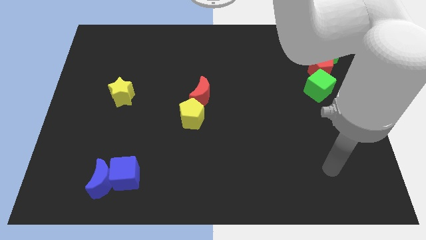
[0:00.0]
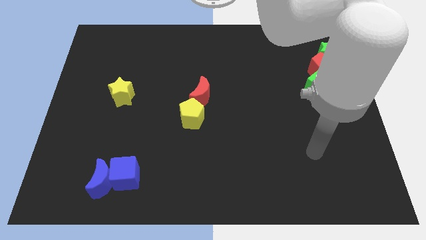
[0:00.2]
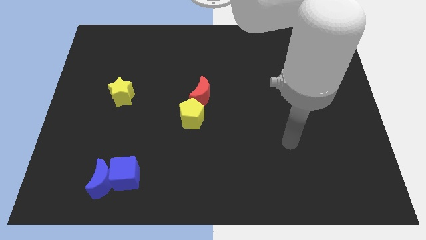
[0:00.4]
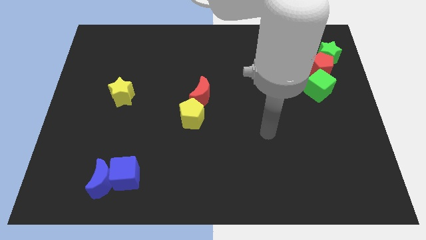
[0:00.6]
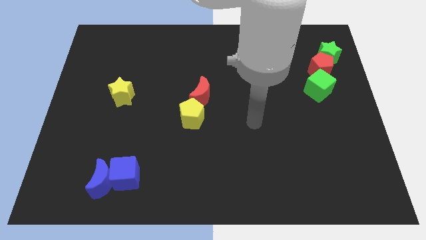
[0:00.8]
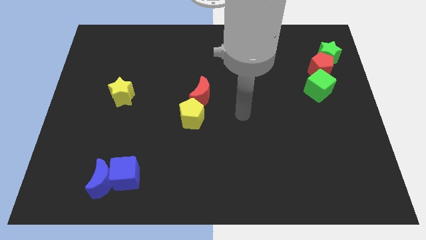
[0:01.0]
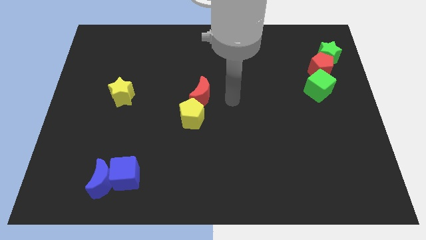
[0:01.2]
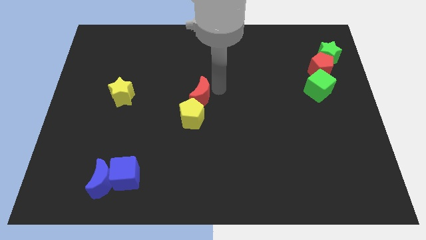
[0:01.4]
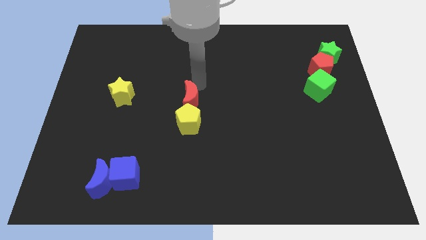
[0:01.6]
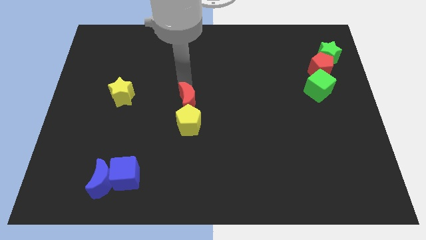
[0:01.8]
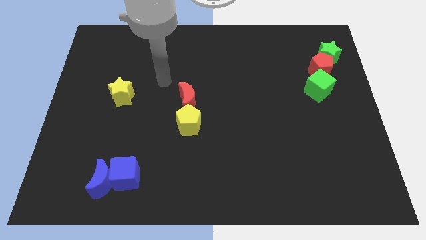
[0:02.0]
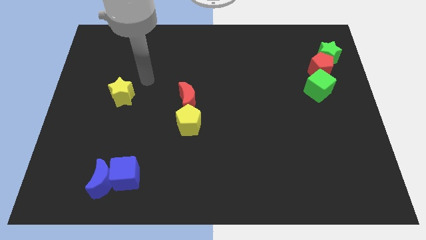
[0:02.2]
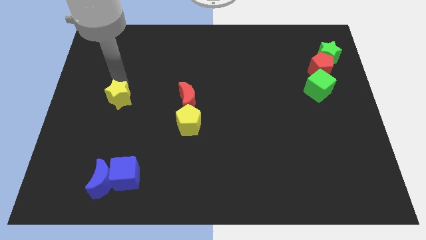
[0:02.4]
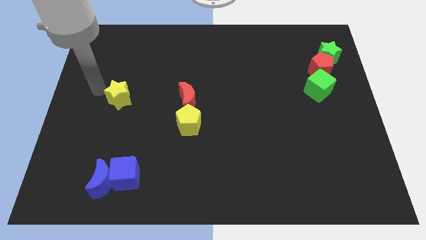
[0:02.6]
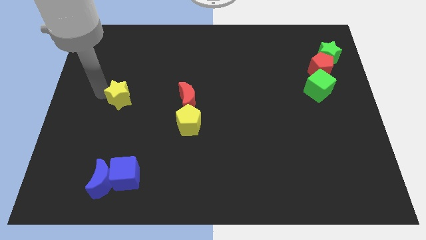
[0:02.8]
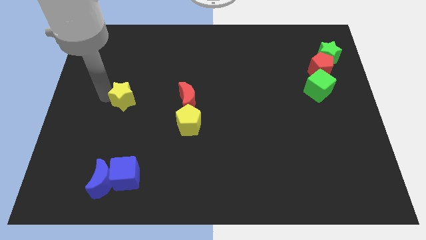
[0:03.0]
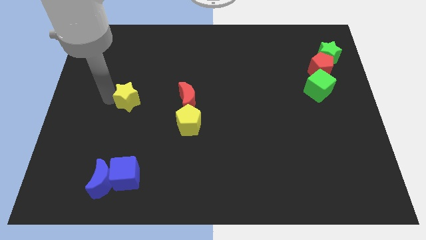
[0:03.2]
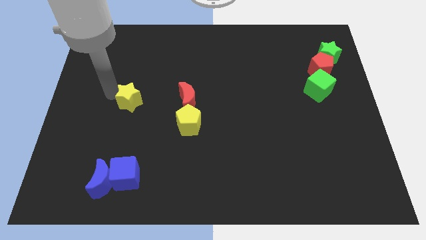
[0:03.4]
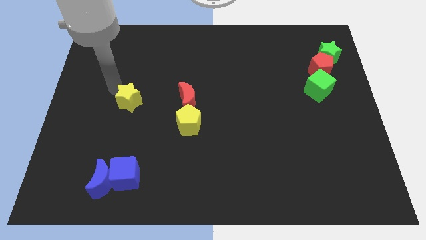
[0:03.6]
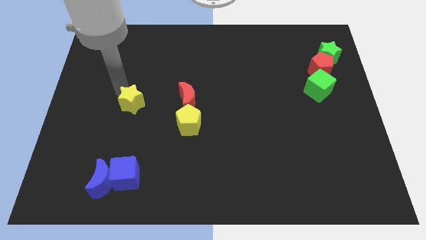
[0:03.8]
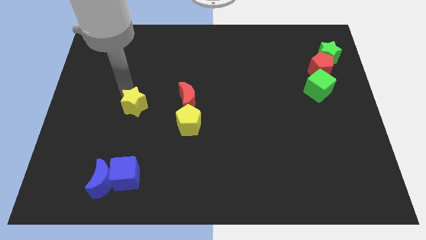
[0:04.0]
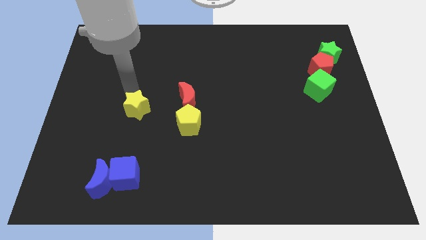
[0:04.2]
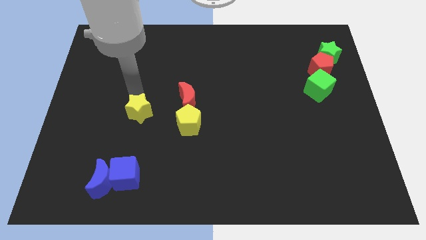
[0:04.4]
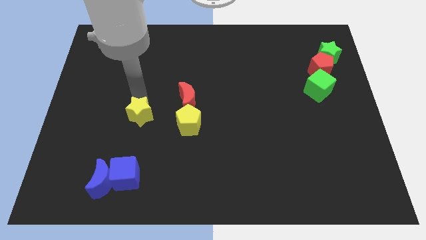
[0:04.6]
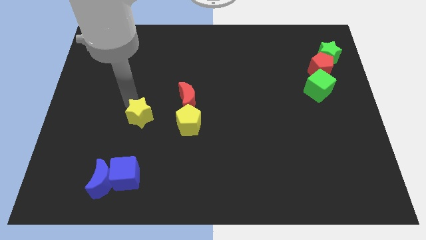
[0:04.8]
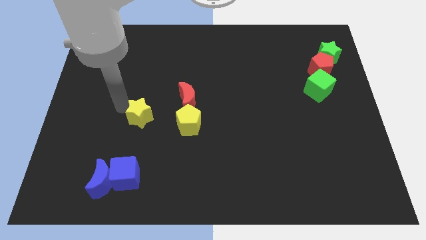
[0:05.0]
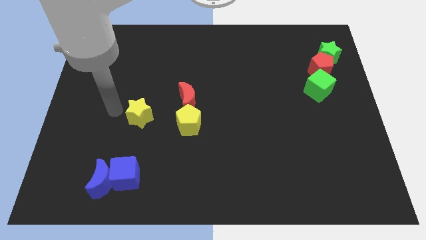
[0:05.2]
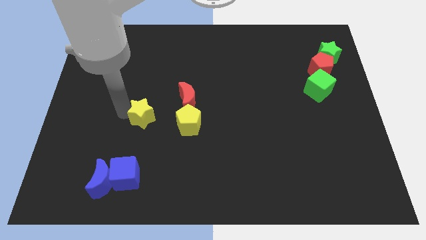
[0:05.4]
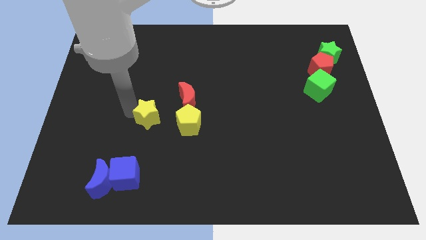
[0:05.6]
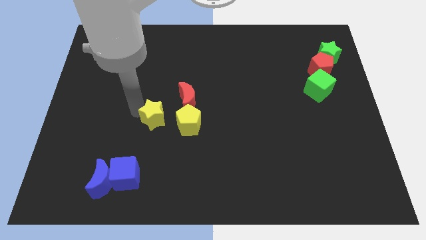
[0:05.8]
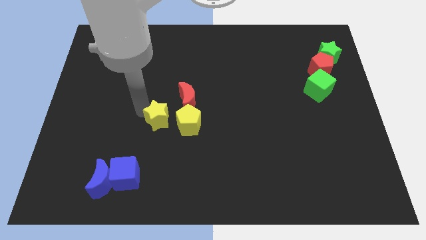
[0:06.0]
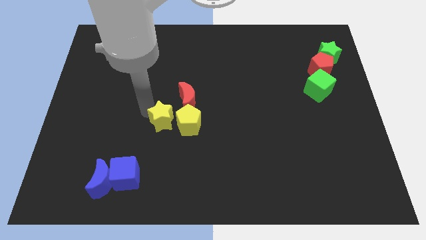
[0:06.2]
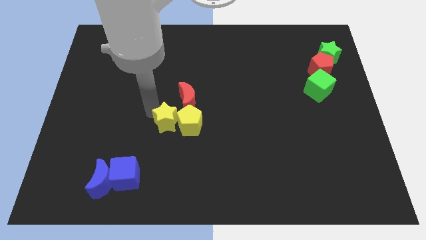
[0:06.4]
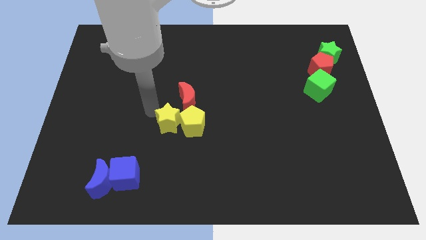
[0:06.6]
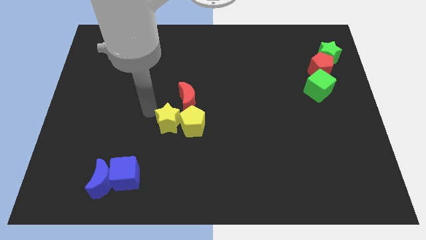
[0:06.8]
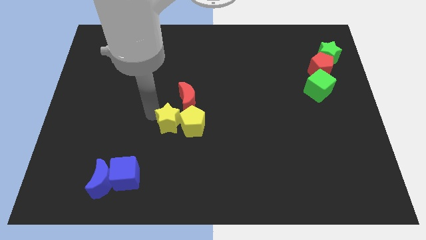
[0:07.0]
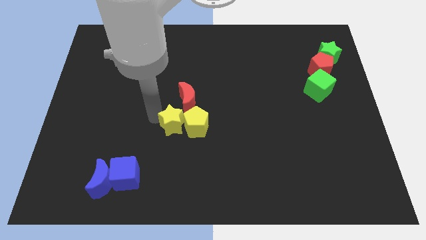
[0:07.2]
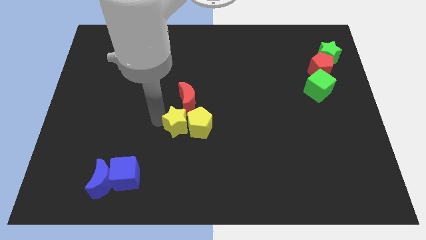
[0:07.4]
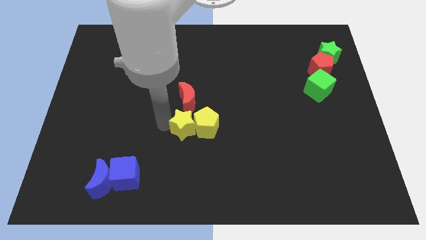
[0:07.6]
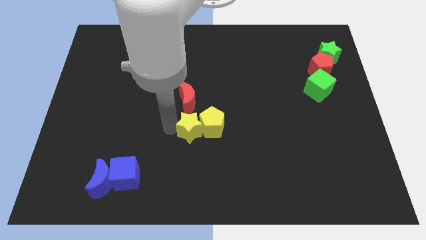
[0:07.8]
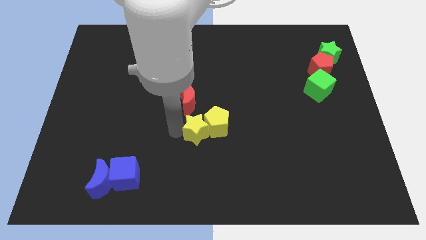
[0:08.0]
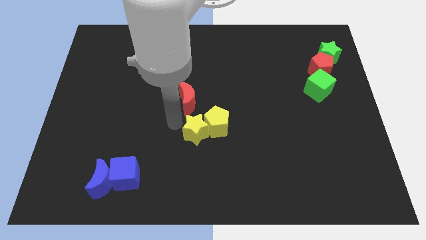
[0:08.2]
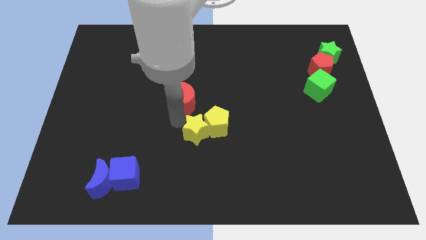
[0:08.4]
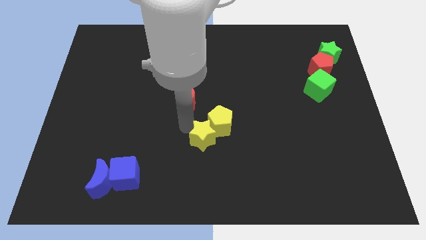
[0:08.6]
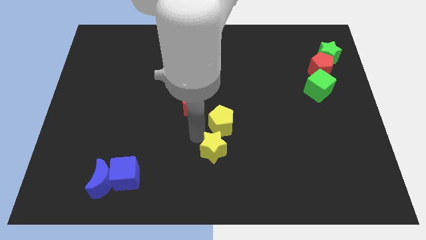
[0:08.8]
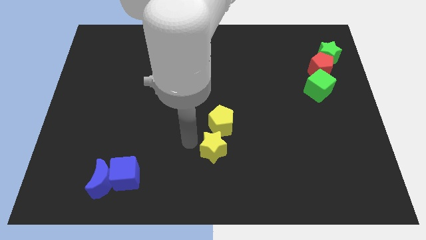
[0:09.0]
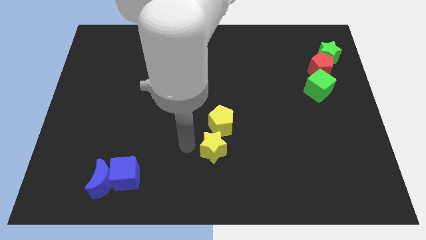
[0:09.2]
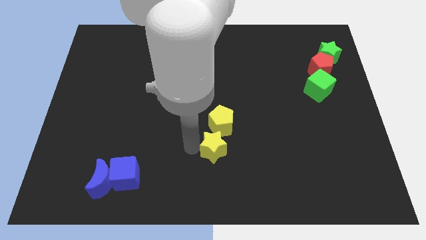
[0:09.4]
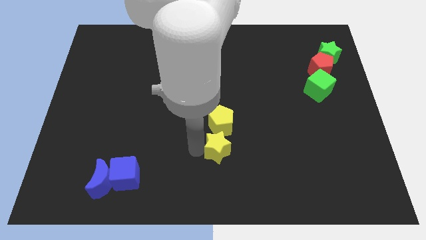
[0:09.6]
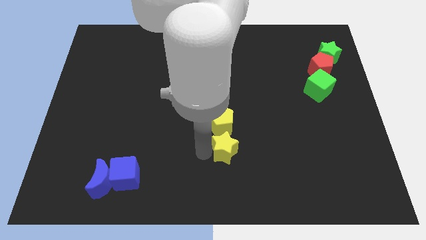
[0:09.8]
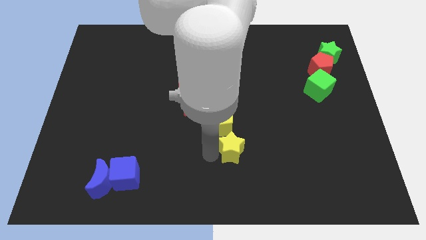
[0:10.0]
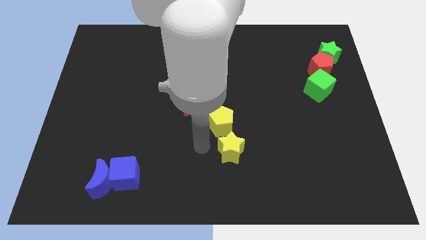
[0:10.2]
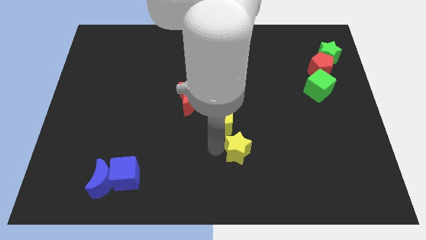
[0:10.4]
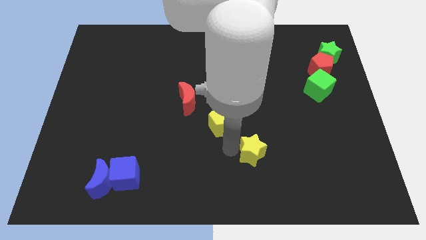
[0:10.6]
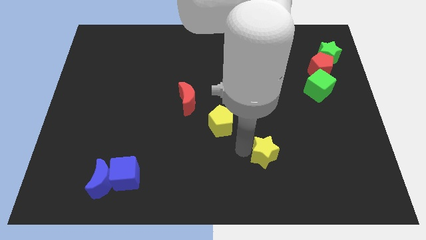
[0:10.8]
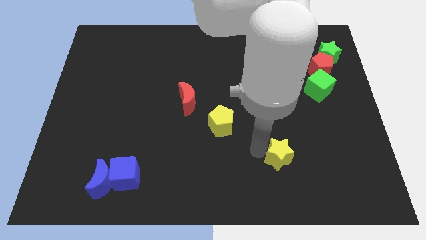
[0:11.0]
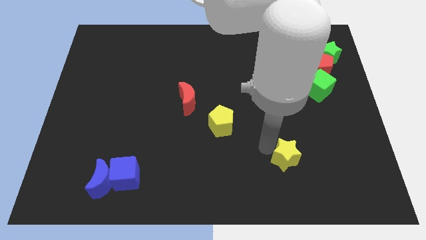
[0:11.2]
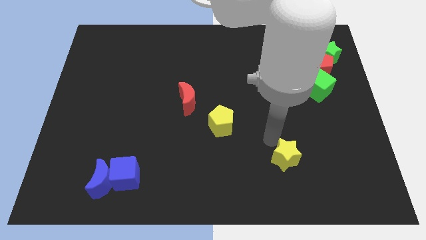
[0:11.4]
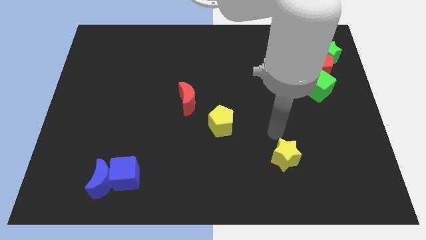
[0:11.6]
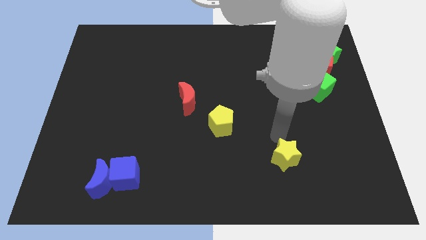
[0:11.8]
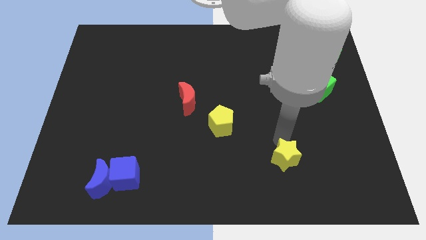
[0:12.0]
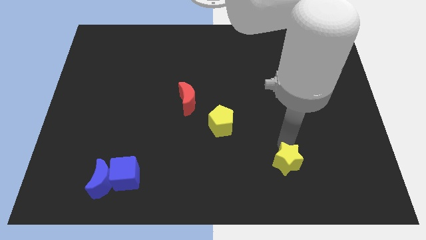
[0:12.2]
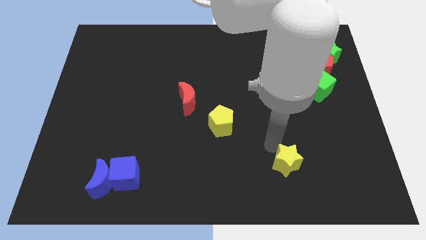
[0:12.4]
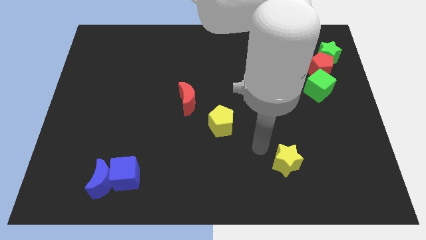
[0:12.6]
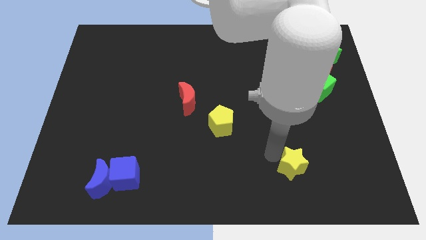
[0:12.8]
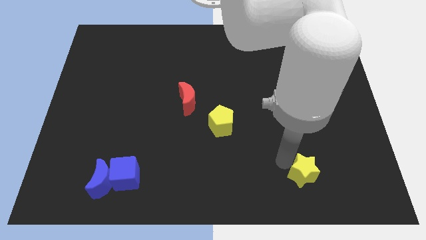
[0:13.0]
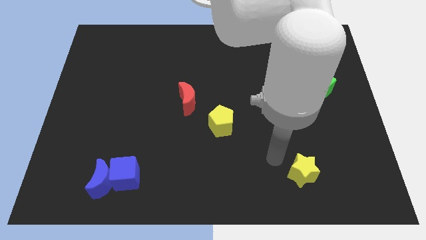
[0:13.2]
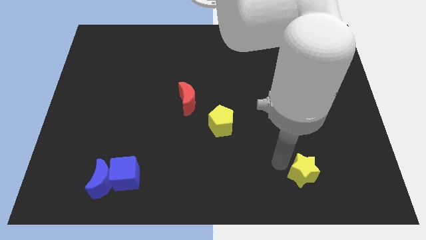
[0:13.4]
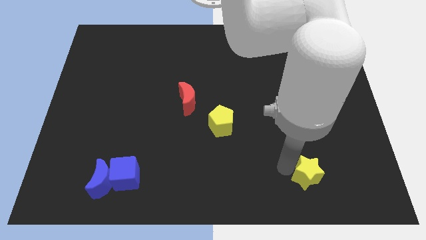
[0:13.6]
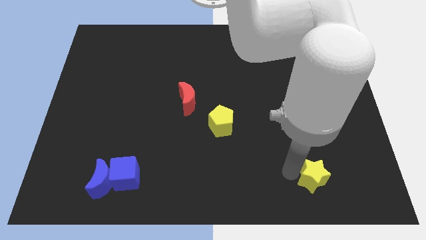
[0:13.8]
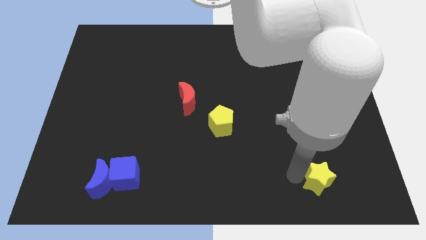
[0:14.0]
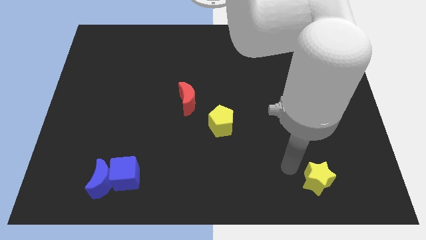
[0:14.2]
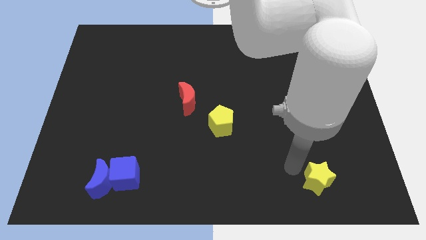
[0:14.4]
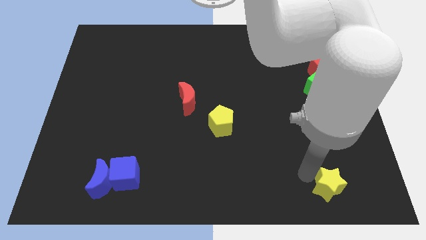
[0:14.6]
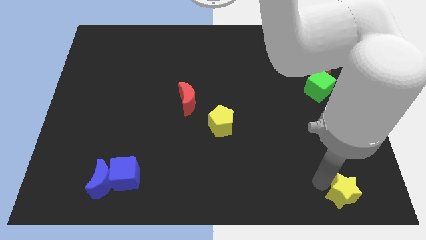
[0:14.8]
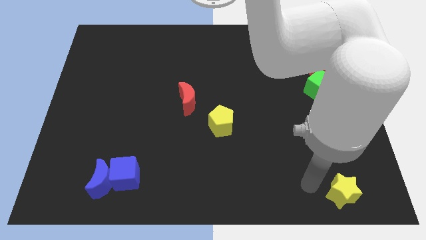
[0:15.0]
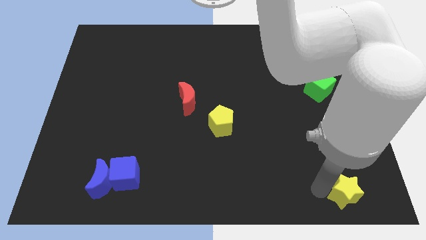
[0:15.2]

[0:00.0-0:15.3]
move the yellow star to the lower right corner
